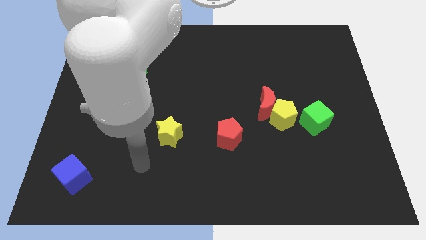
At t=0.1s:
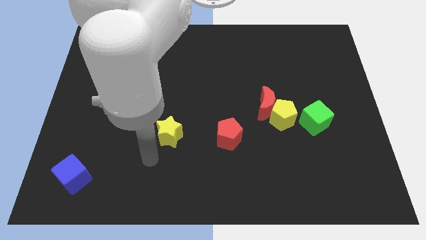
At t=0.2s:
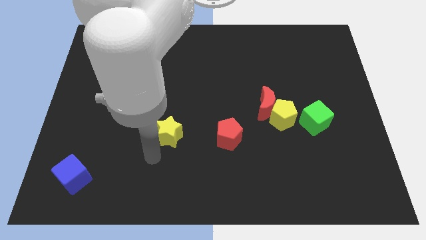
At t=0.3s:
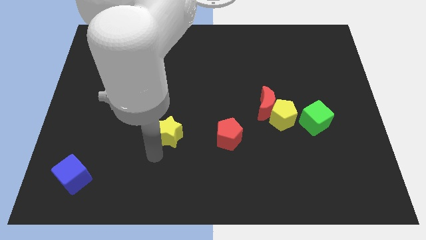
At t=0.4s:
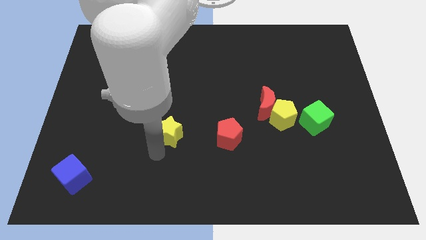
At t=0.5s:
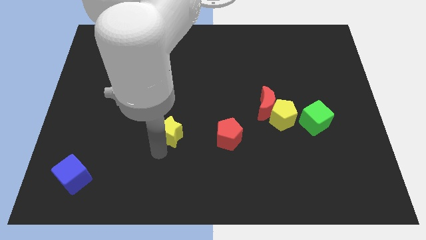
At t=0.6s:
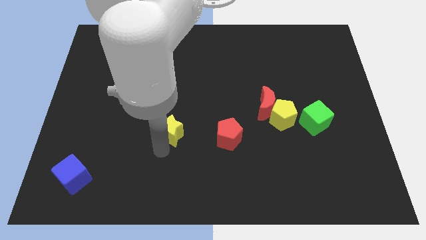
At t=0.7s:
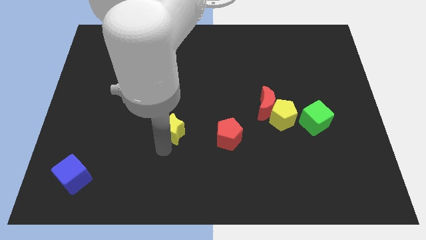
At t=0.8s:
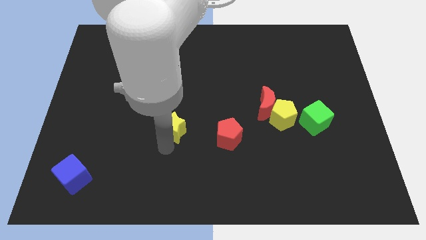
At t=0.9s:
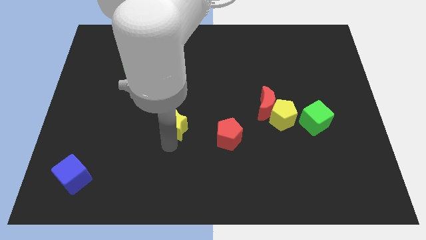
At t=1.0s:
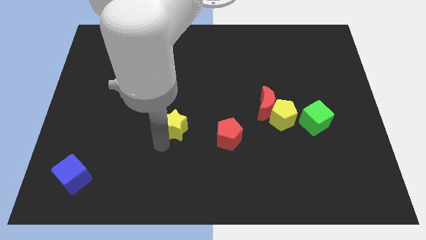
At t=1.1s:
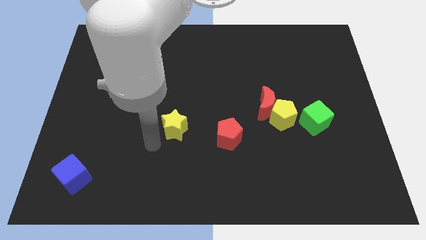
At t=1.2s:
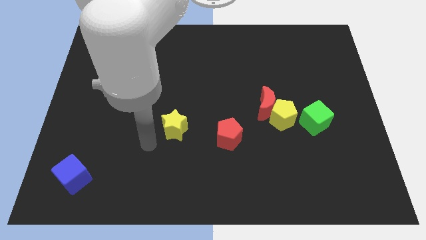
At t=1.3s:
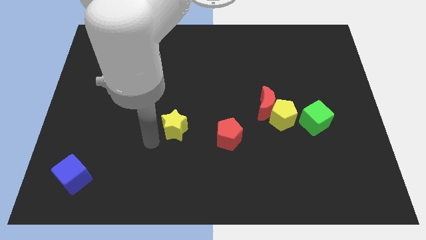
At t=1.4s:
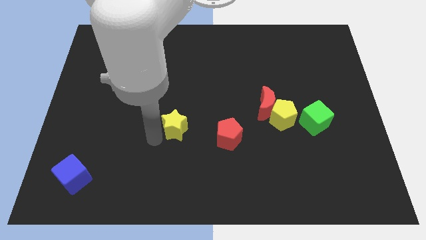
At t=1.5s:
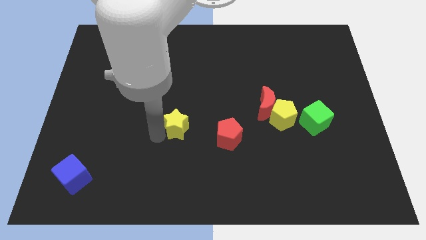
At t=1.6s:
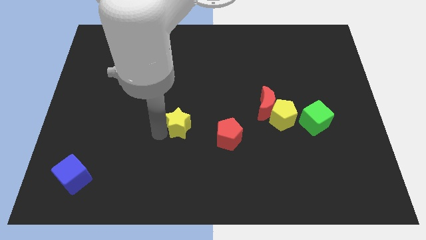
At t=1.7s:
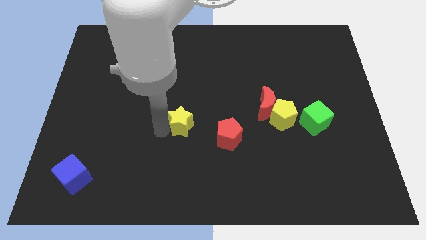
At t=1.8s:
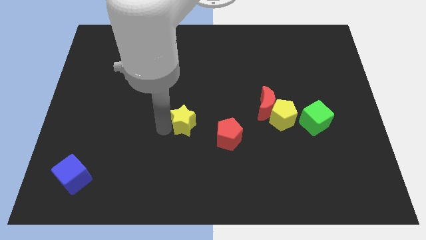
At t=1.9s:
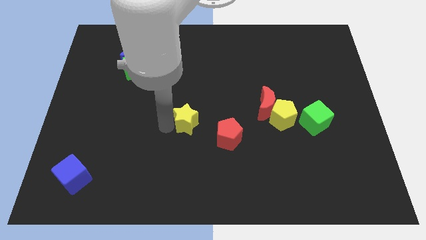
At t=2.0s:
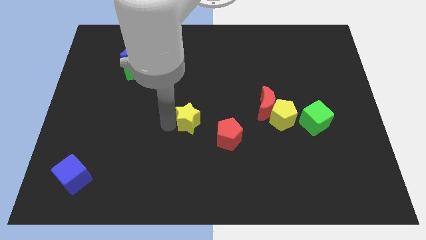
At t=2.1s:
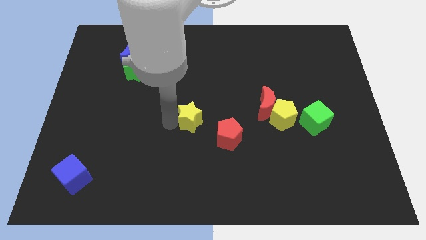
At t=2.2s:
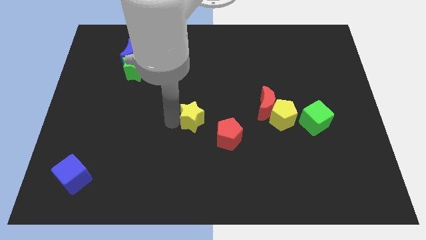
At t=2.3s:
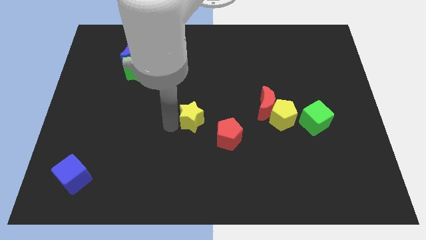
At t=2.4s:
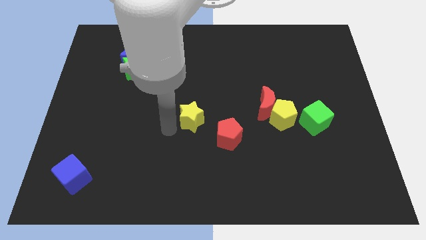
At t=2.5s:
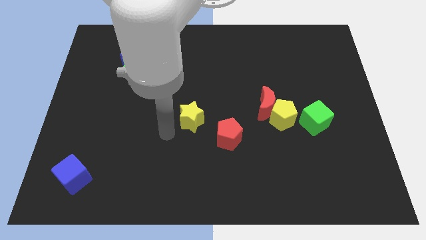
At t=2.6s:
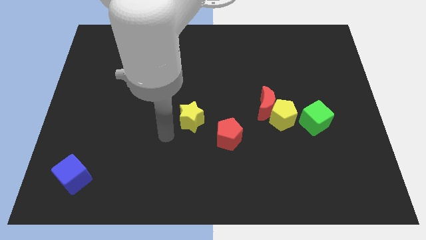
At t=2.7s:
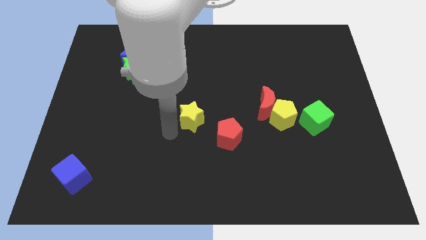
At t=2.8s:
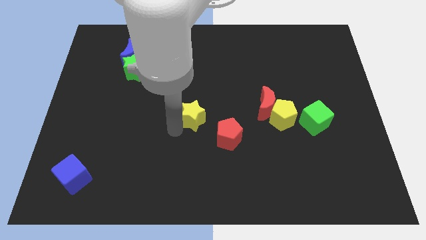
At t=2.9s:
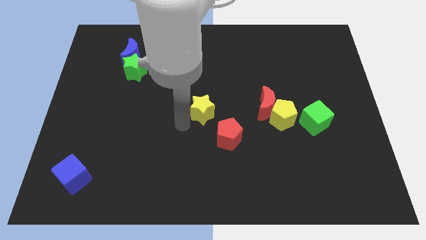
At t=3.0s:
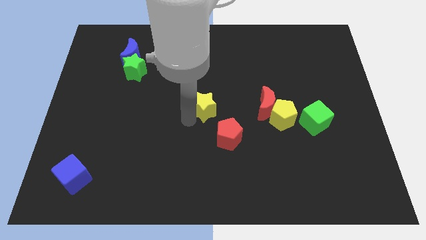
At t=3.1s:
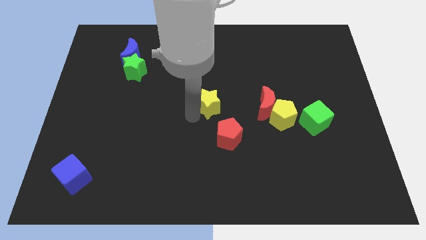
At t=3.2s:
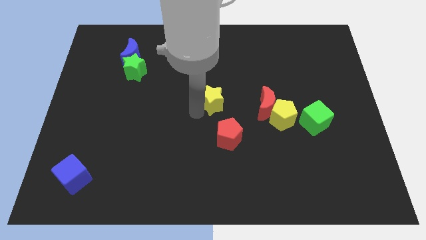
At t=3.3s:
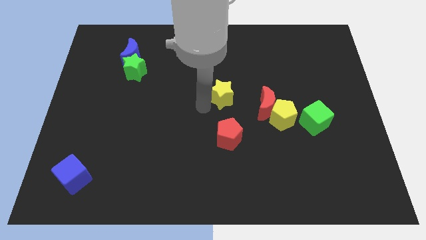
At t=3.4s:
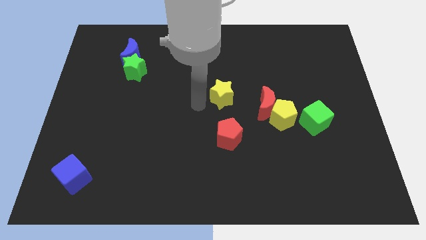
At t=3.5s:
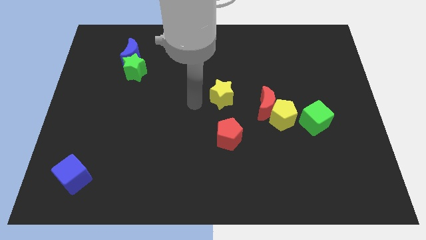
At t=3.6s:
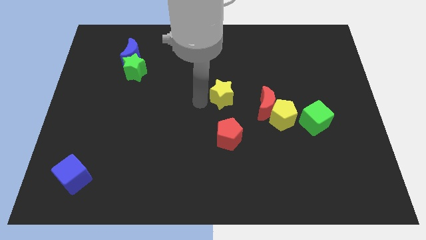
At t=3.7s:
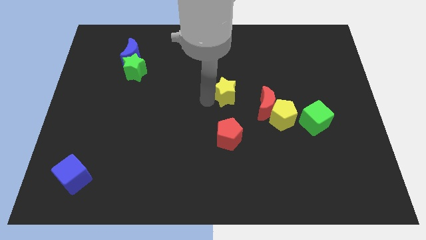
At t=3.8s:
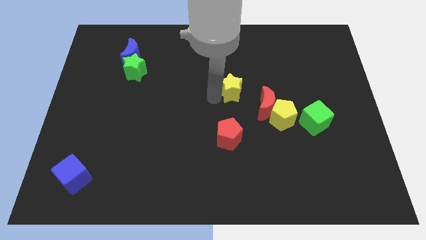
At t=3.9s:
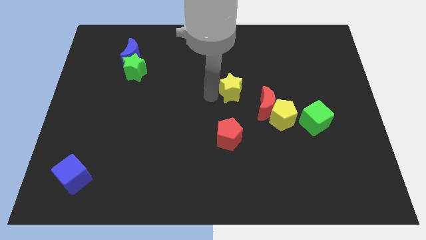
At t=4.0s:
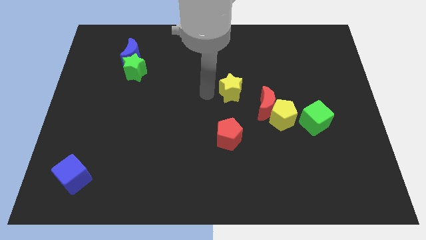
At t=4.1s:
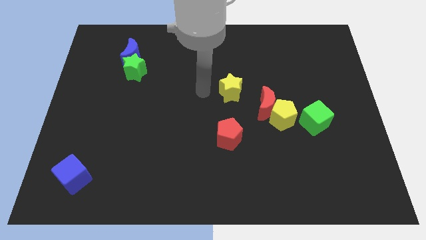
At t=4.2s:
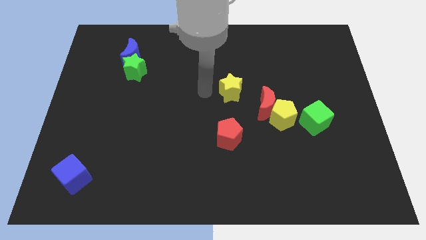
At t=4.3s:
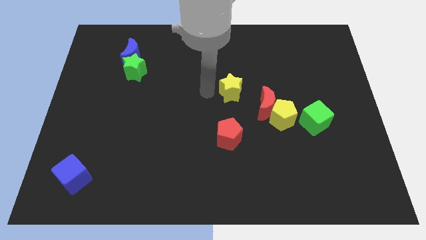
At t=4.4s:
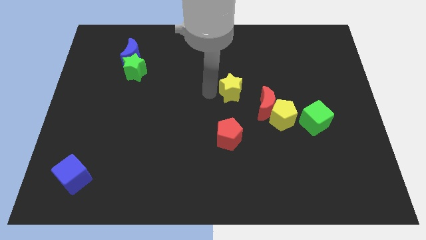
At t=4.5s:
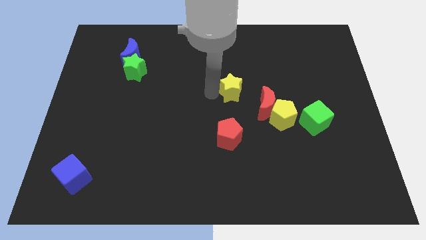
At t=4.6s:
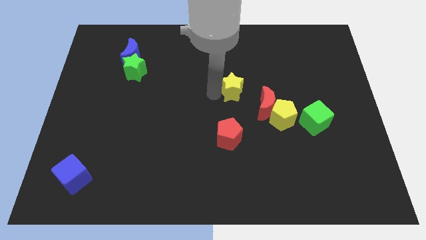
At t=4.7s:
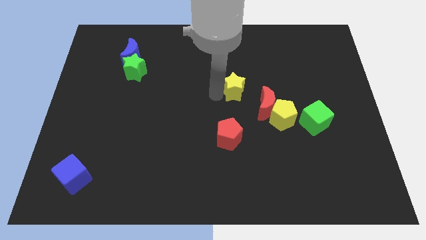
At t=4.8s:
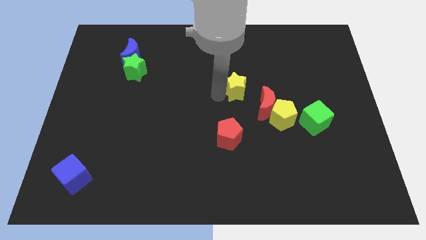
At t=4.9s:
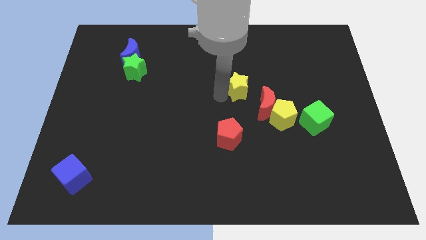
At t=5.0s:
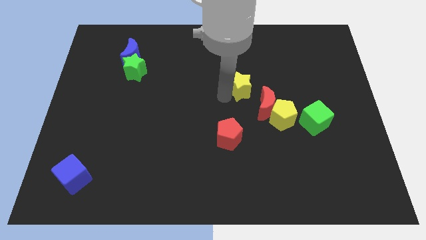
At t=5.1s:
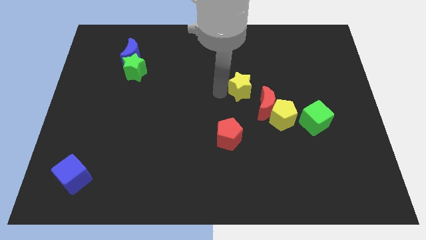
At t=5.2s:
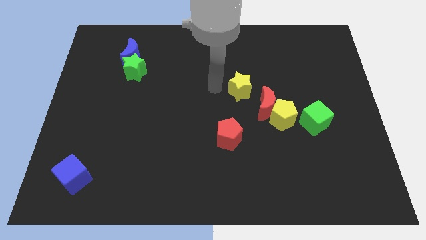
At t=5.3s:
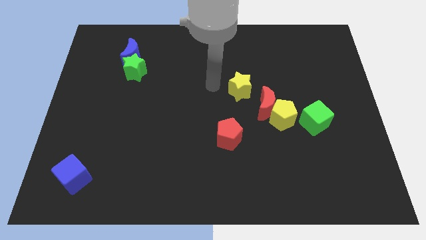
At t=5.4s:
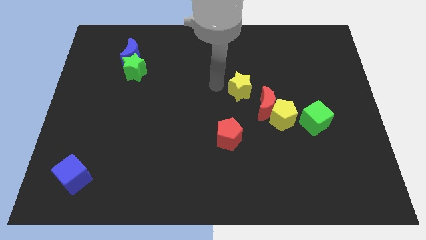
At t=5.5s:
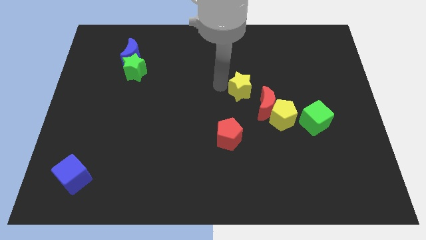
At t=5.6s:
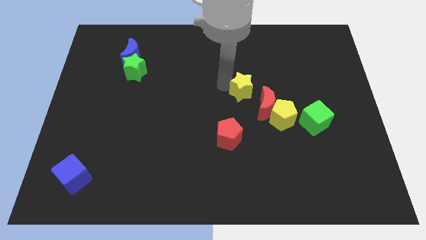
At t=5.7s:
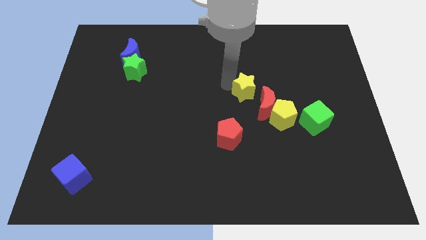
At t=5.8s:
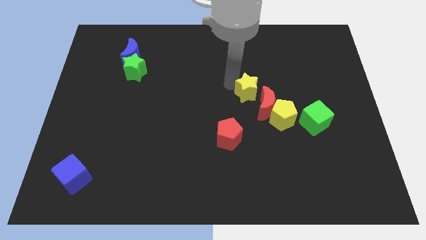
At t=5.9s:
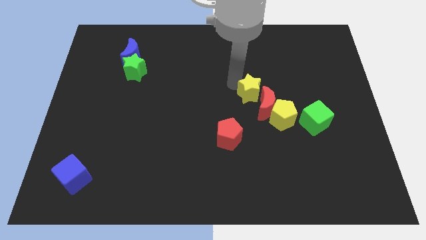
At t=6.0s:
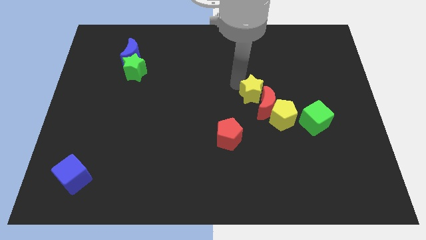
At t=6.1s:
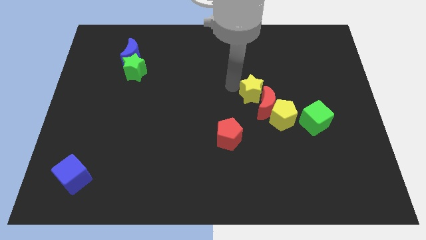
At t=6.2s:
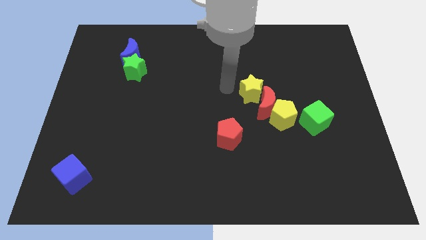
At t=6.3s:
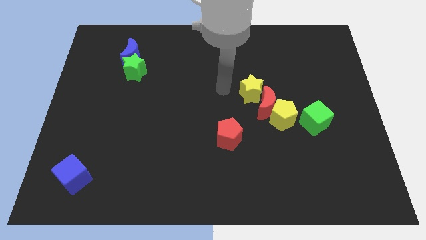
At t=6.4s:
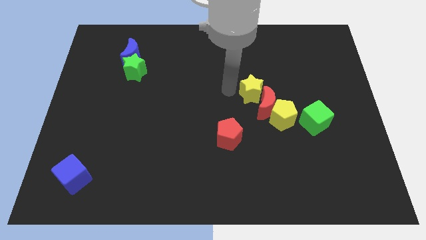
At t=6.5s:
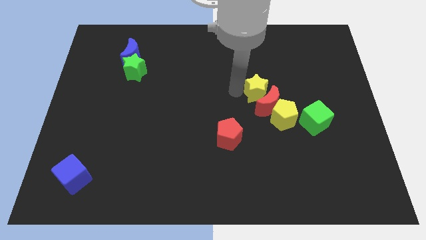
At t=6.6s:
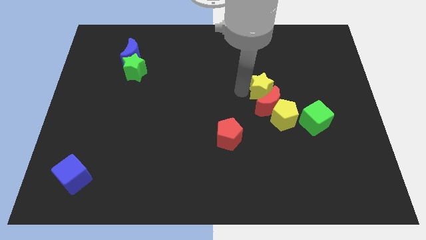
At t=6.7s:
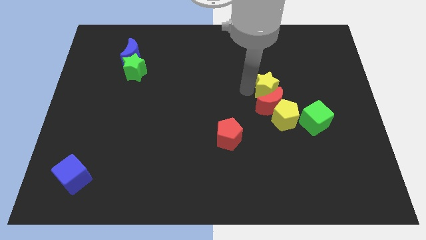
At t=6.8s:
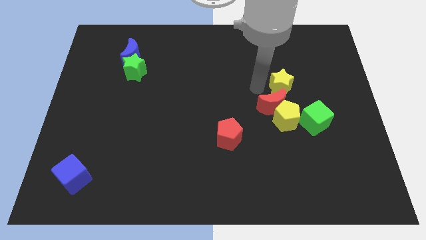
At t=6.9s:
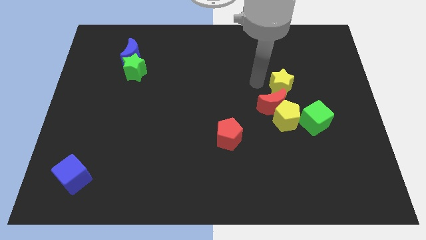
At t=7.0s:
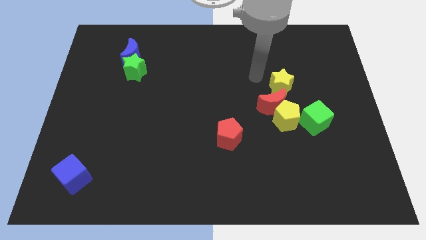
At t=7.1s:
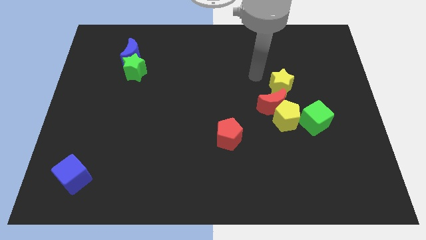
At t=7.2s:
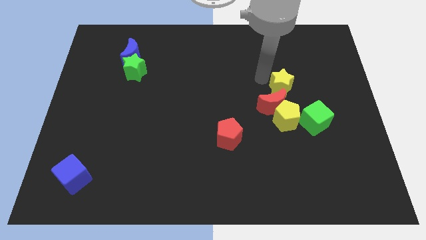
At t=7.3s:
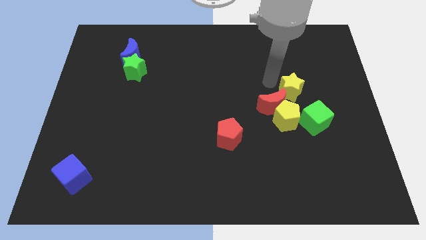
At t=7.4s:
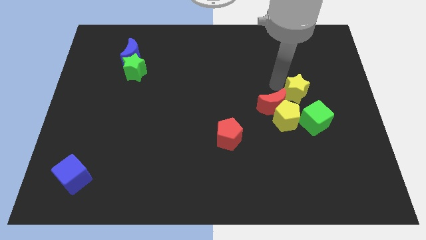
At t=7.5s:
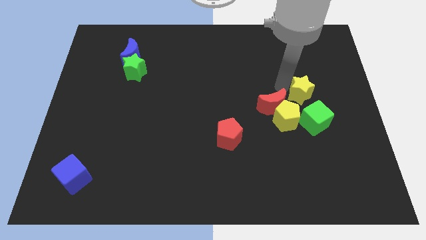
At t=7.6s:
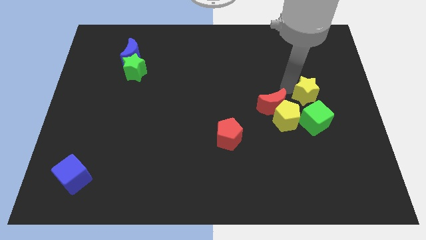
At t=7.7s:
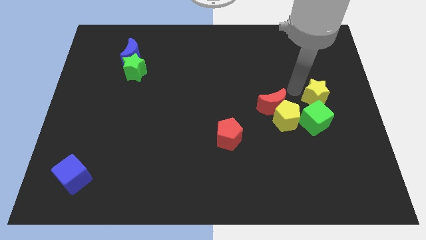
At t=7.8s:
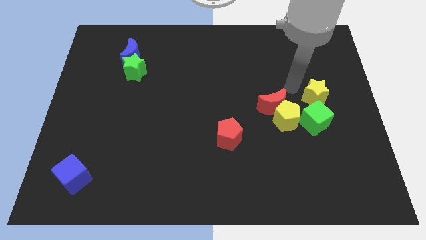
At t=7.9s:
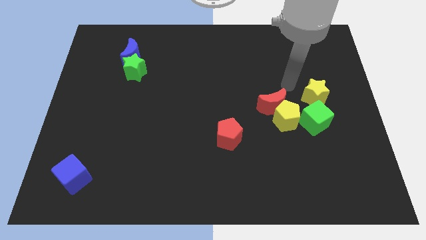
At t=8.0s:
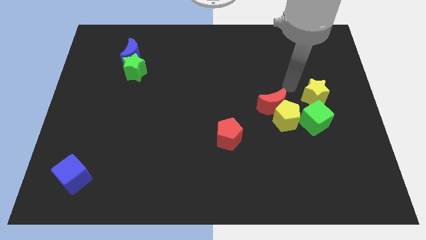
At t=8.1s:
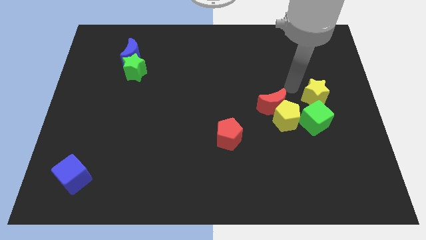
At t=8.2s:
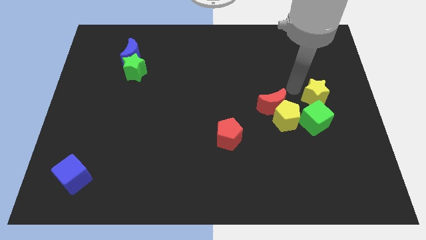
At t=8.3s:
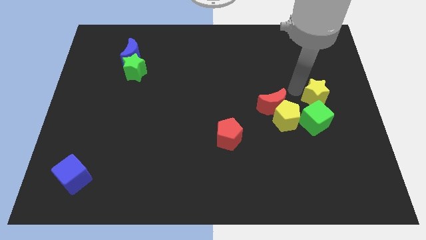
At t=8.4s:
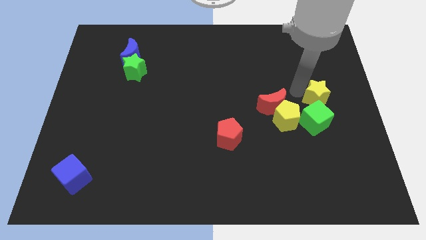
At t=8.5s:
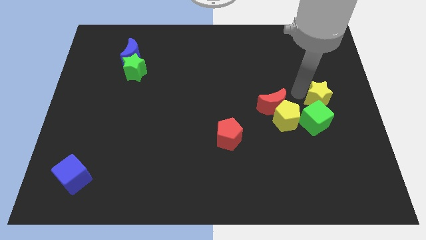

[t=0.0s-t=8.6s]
push the yellow star to the right side of the board

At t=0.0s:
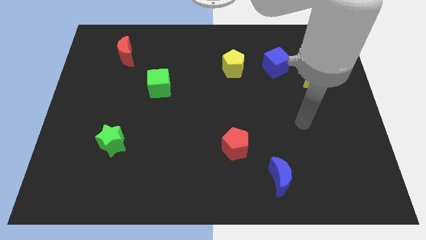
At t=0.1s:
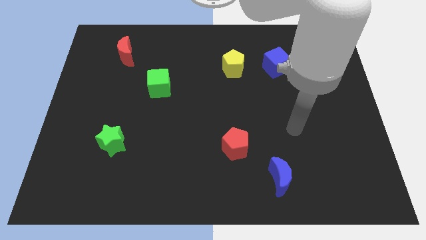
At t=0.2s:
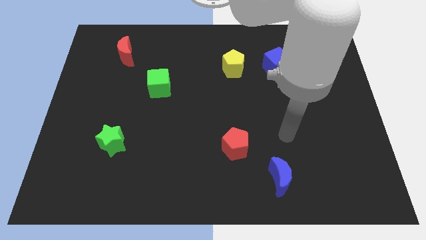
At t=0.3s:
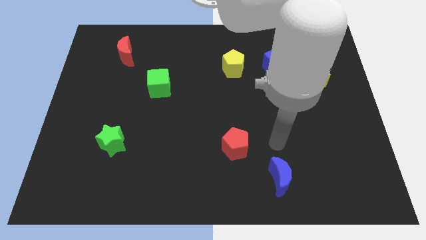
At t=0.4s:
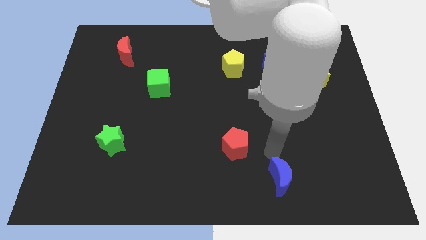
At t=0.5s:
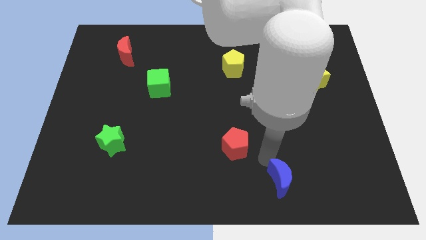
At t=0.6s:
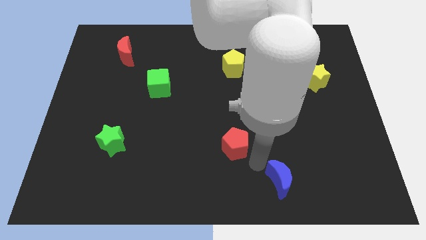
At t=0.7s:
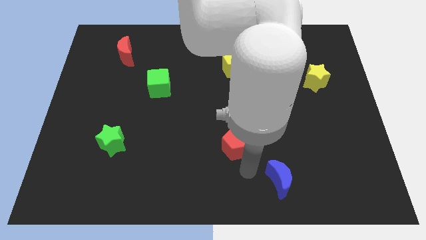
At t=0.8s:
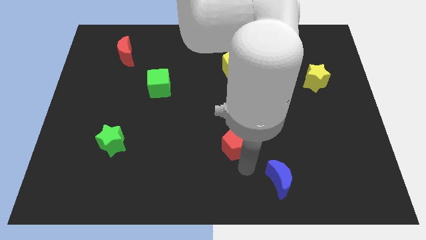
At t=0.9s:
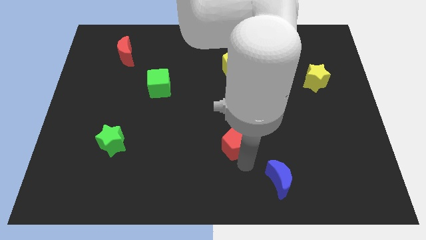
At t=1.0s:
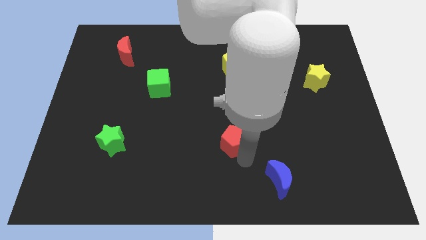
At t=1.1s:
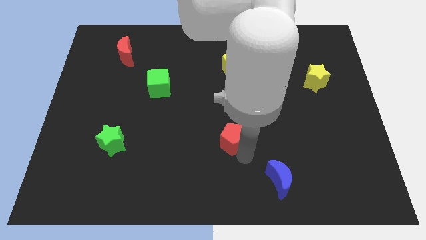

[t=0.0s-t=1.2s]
push the red pentagon to the center of the board
